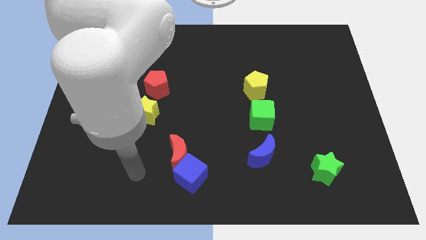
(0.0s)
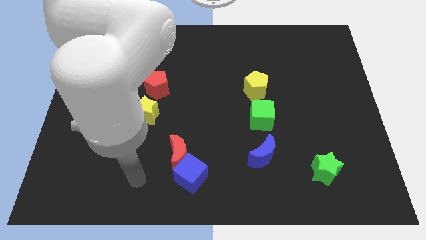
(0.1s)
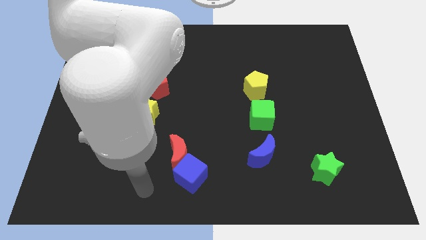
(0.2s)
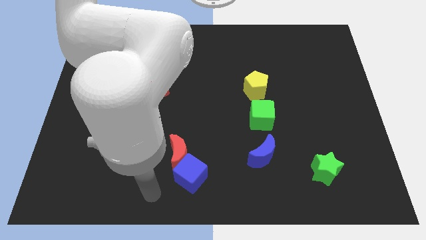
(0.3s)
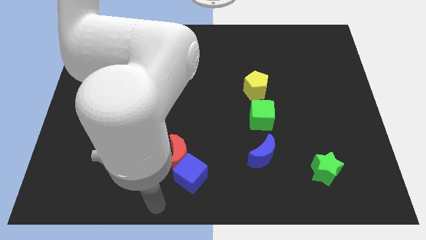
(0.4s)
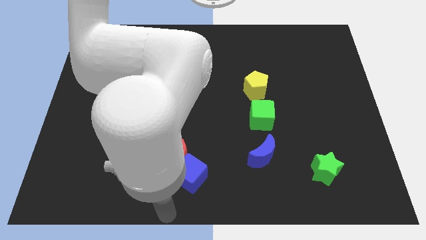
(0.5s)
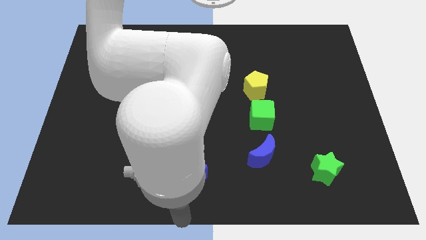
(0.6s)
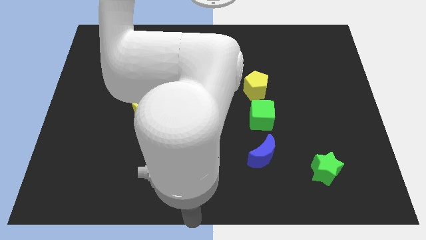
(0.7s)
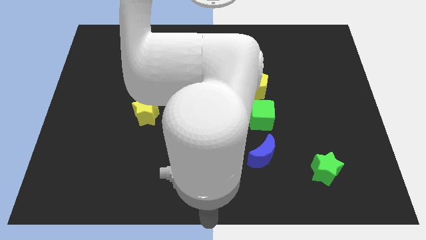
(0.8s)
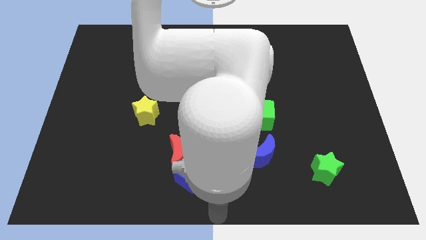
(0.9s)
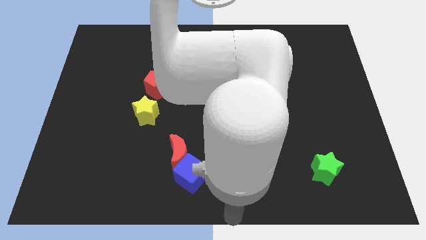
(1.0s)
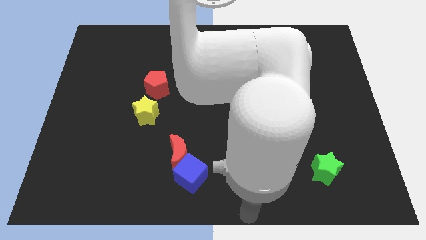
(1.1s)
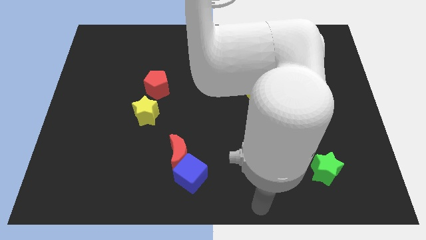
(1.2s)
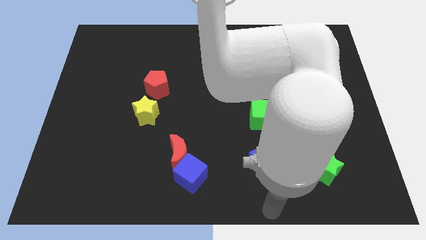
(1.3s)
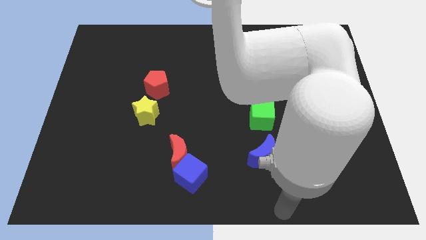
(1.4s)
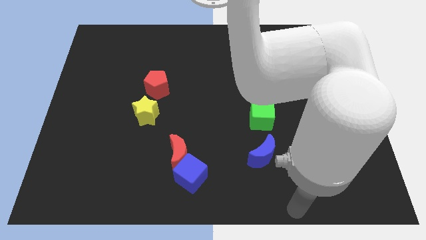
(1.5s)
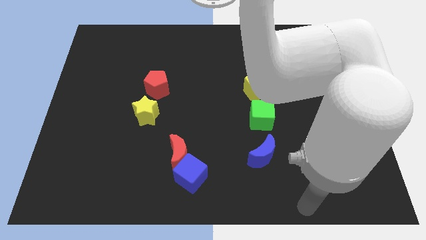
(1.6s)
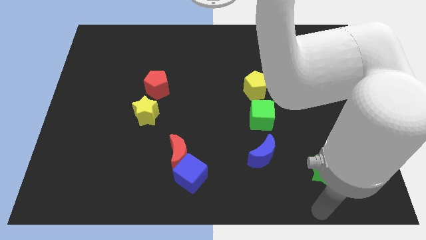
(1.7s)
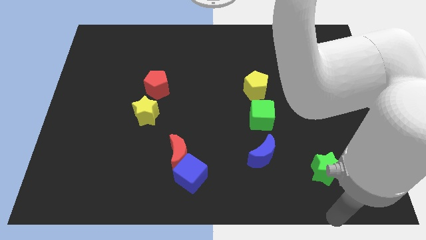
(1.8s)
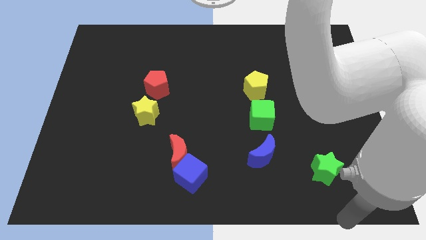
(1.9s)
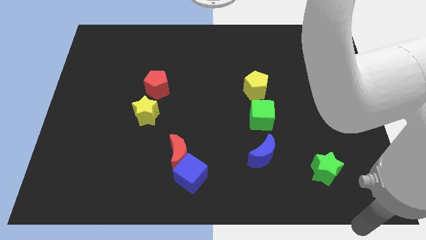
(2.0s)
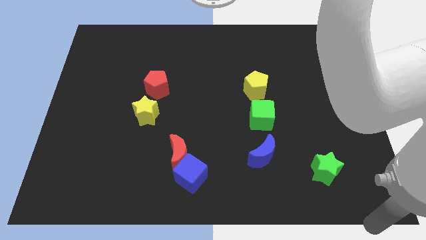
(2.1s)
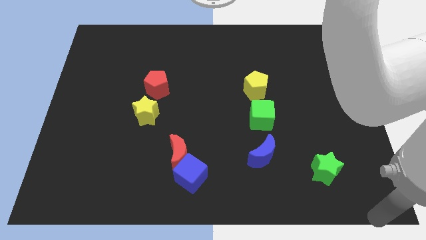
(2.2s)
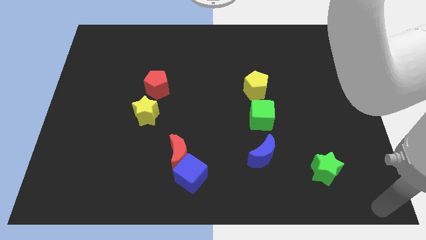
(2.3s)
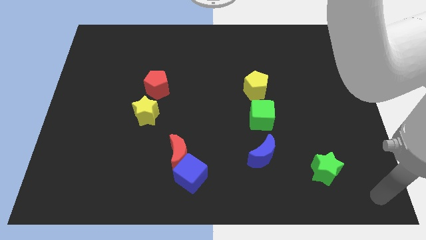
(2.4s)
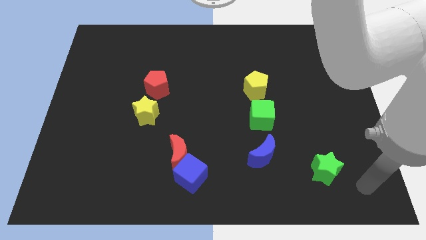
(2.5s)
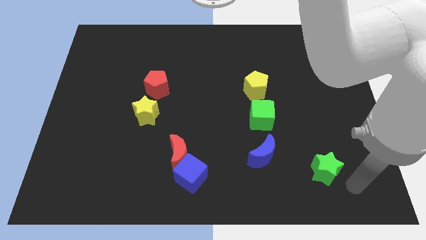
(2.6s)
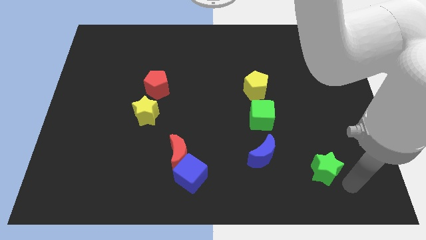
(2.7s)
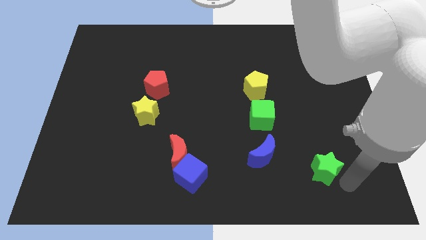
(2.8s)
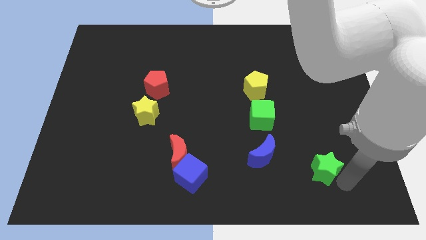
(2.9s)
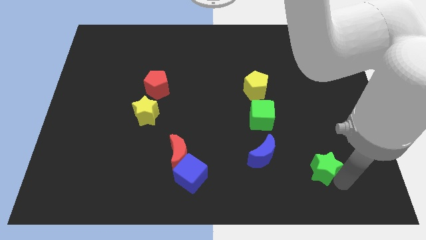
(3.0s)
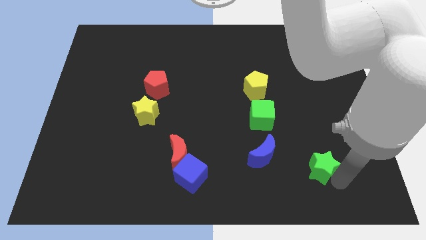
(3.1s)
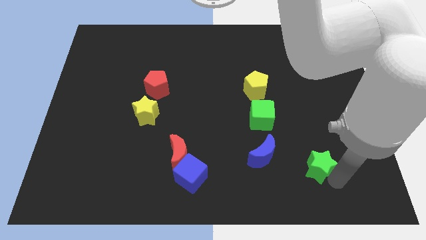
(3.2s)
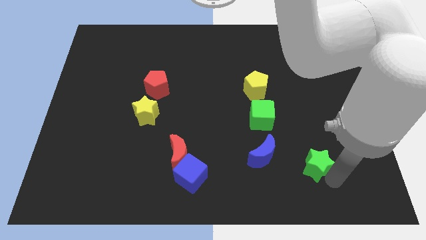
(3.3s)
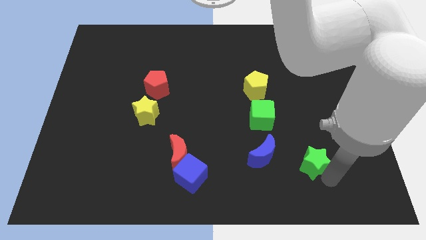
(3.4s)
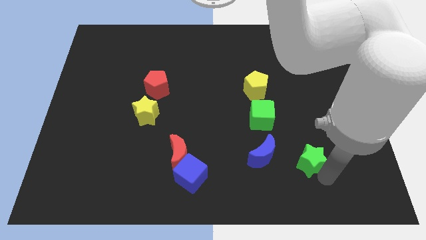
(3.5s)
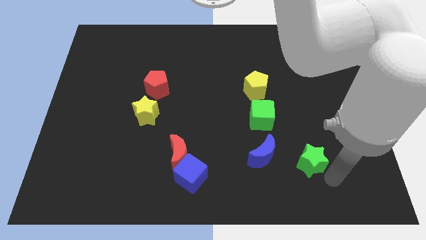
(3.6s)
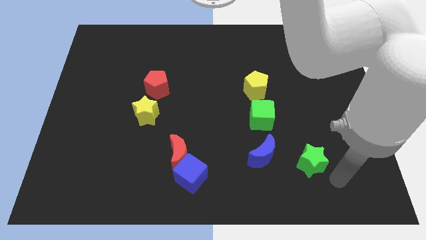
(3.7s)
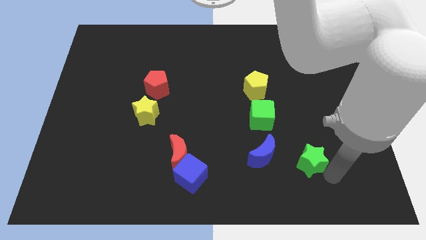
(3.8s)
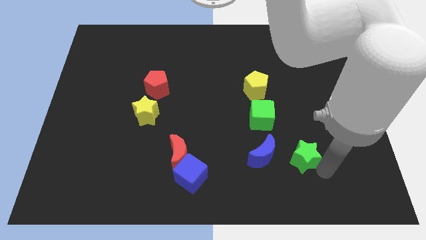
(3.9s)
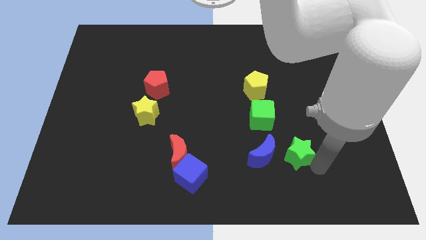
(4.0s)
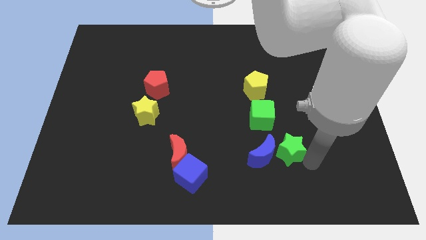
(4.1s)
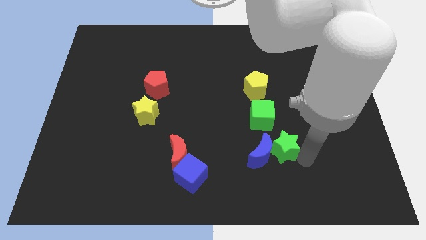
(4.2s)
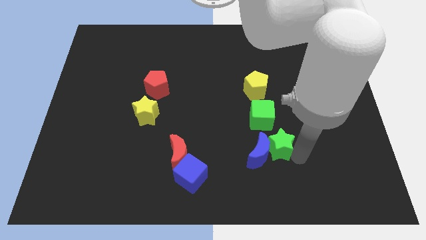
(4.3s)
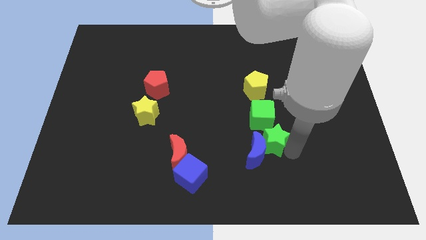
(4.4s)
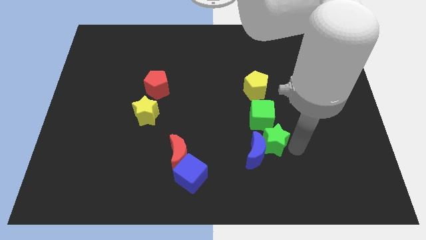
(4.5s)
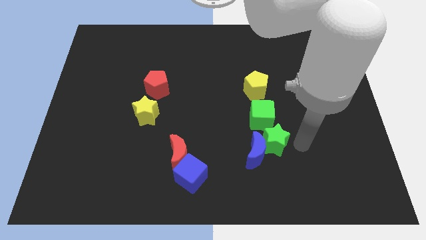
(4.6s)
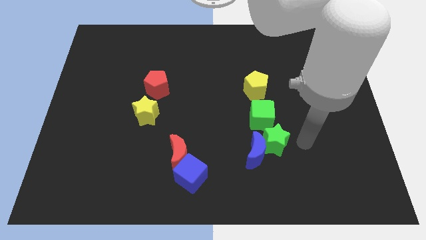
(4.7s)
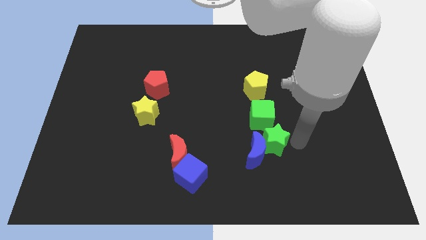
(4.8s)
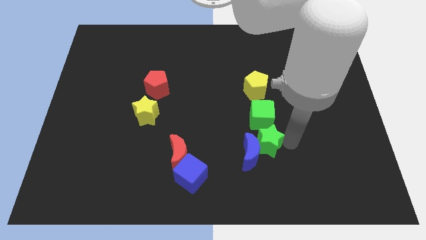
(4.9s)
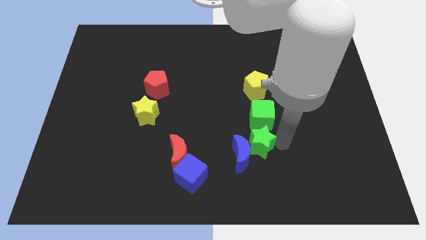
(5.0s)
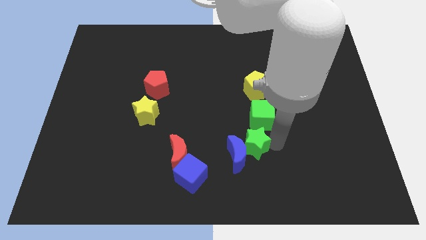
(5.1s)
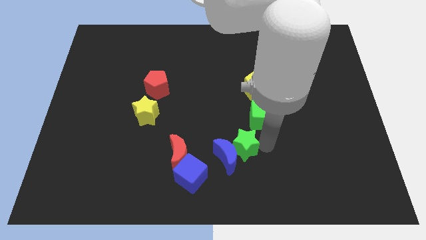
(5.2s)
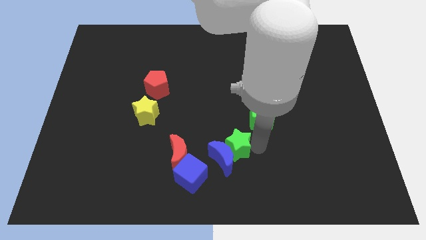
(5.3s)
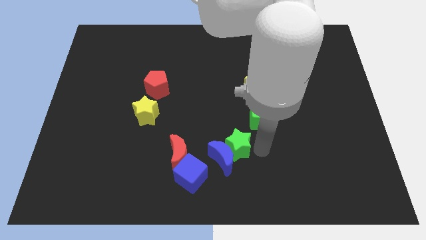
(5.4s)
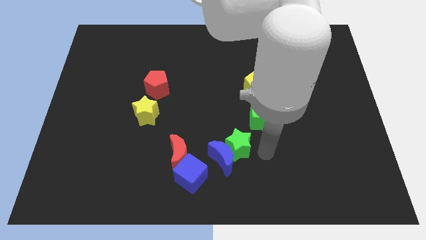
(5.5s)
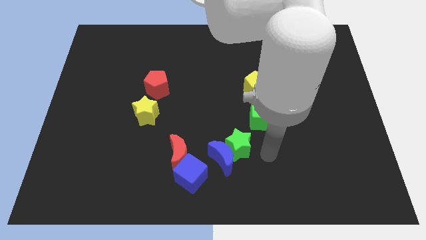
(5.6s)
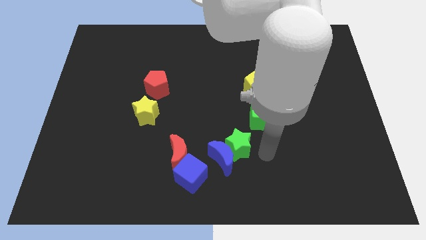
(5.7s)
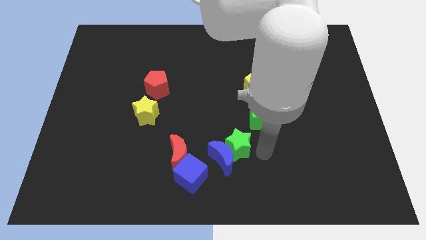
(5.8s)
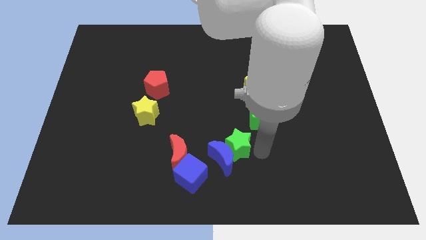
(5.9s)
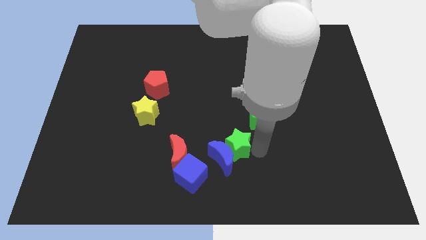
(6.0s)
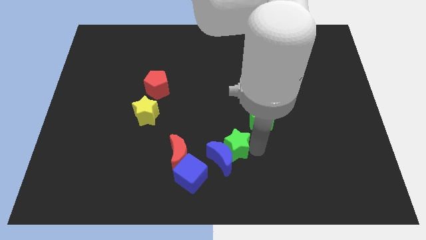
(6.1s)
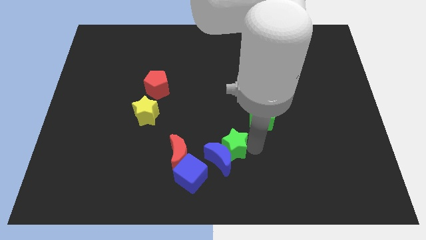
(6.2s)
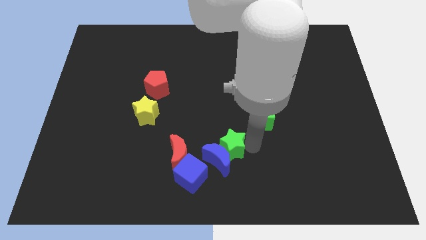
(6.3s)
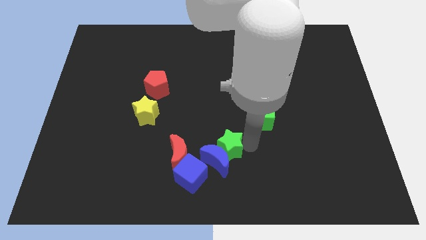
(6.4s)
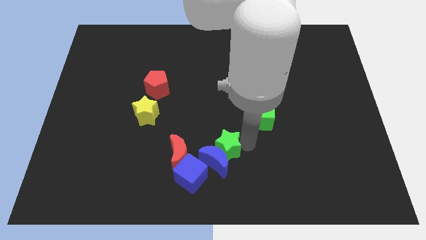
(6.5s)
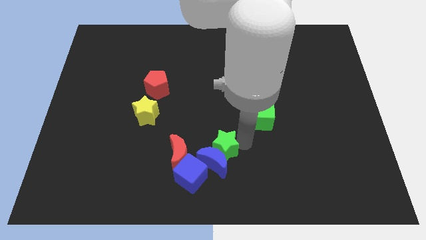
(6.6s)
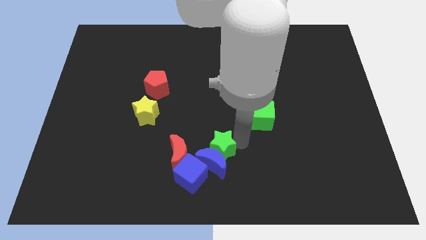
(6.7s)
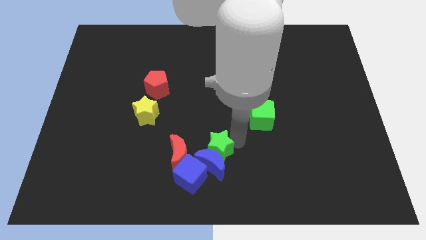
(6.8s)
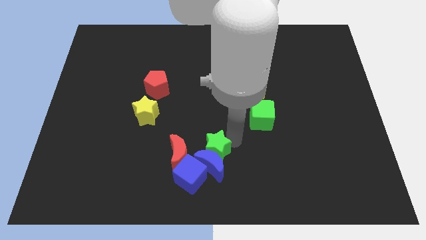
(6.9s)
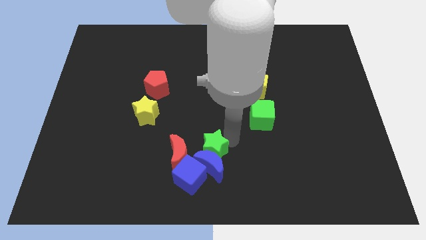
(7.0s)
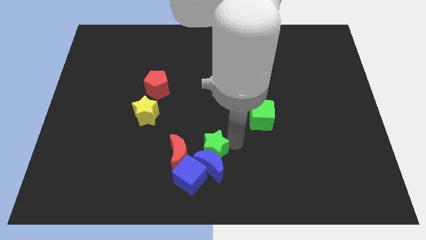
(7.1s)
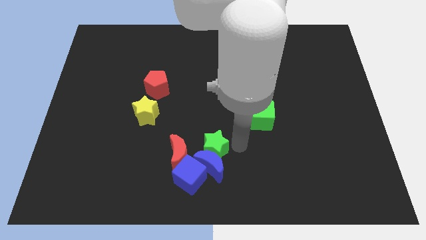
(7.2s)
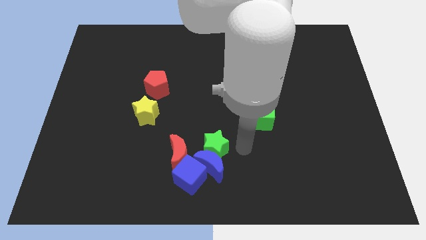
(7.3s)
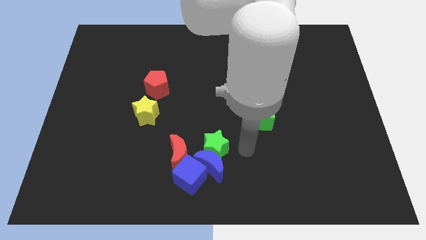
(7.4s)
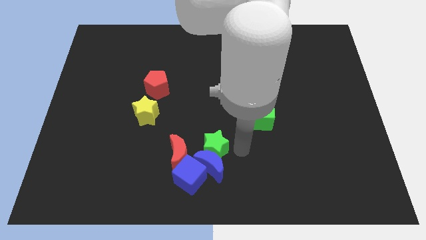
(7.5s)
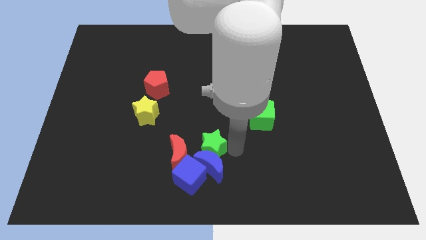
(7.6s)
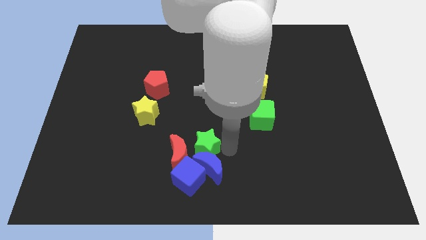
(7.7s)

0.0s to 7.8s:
move the green star next to the red moon
